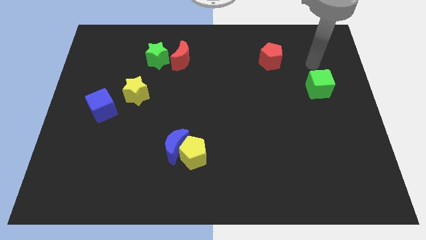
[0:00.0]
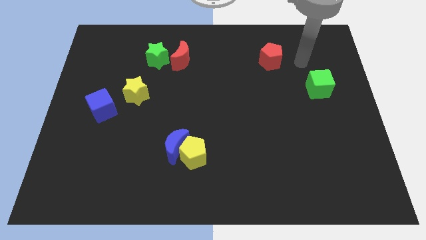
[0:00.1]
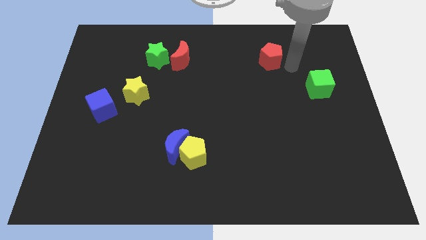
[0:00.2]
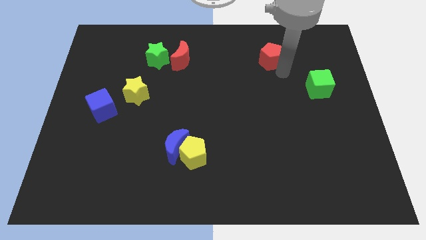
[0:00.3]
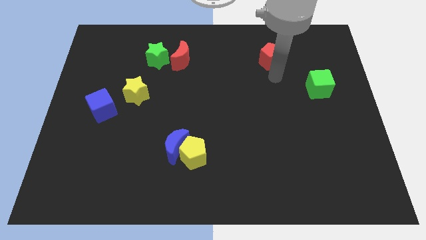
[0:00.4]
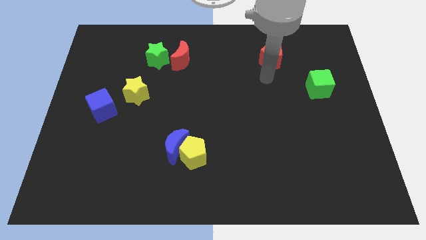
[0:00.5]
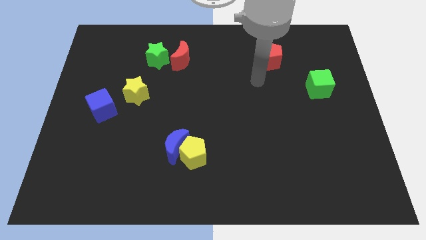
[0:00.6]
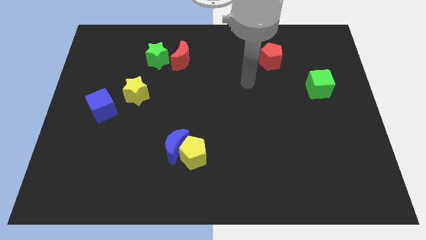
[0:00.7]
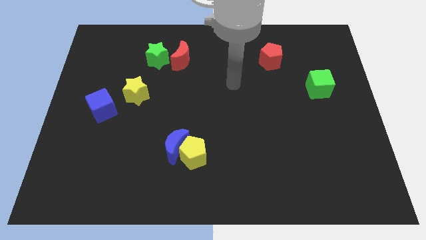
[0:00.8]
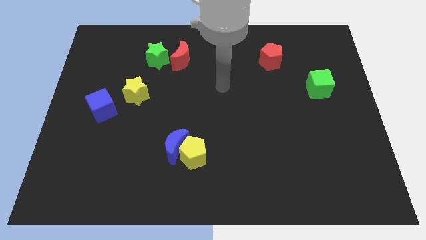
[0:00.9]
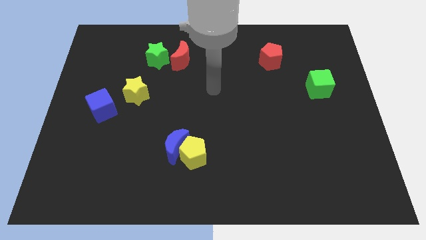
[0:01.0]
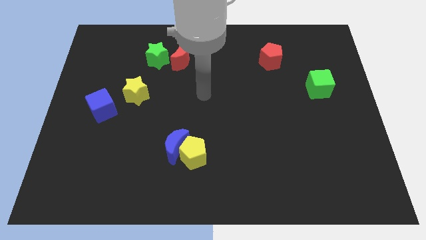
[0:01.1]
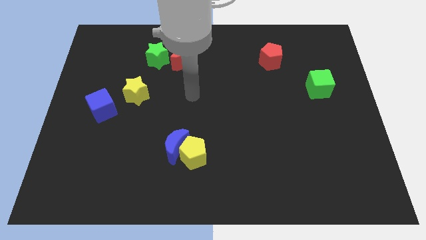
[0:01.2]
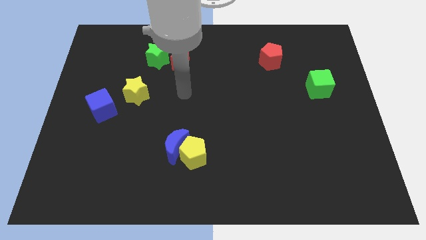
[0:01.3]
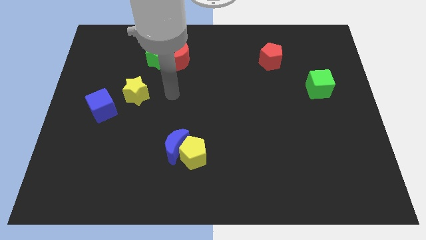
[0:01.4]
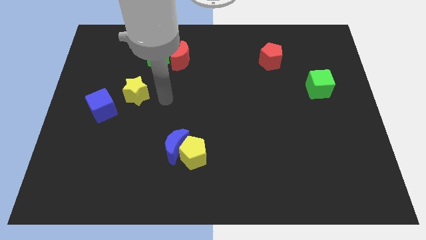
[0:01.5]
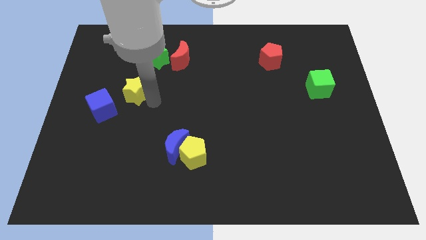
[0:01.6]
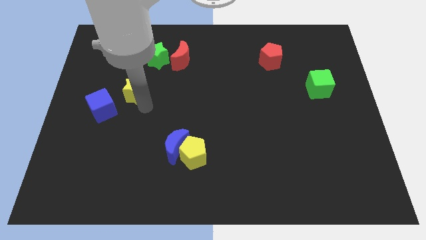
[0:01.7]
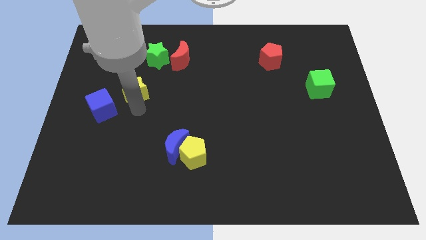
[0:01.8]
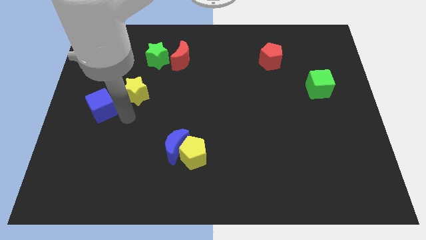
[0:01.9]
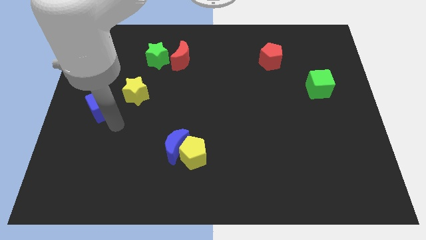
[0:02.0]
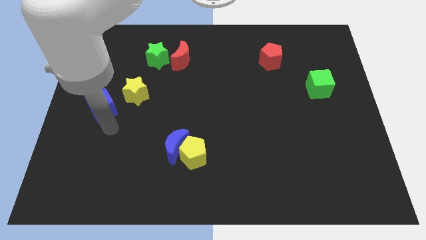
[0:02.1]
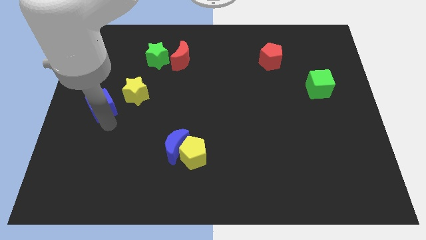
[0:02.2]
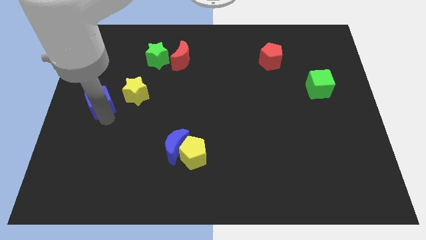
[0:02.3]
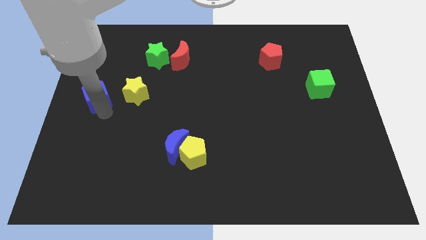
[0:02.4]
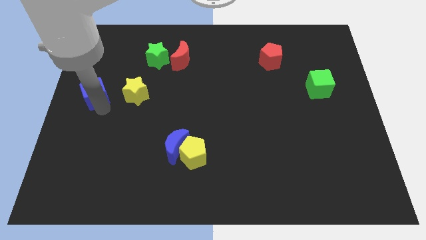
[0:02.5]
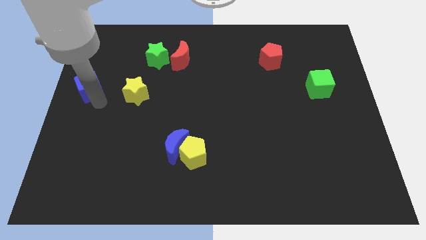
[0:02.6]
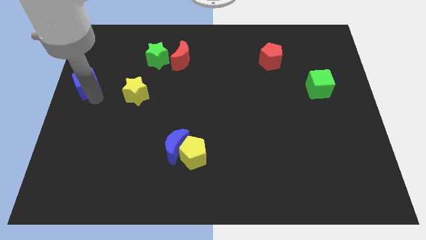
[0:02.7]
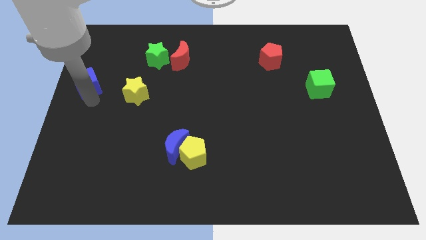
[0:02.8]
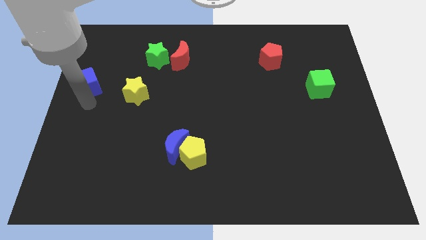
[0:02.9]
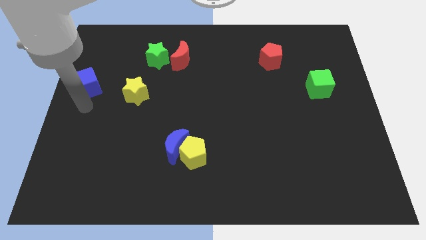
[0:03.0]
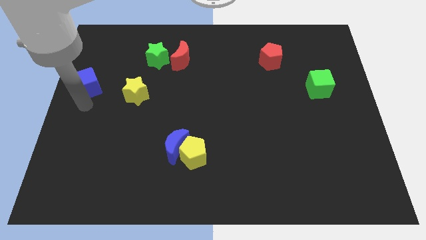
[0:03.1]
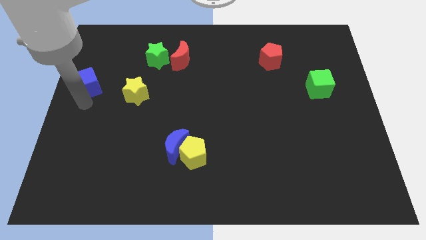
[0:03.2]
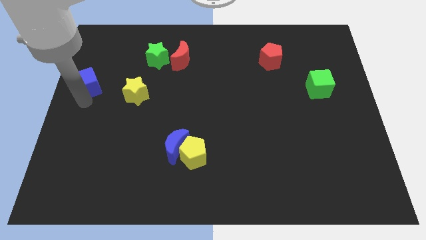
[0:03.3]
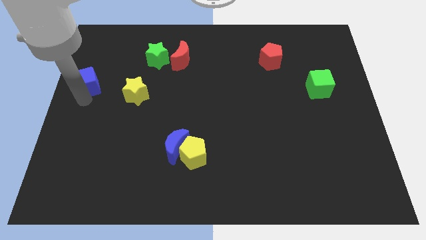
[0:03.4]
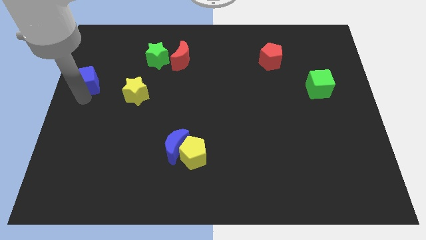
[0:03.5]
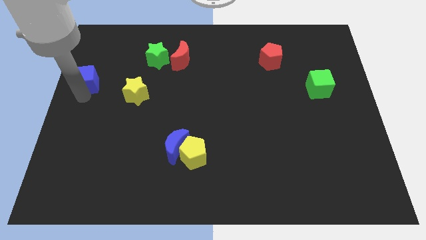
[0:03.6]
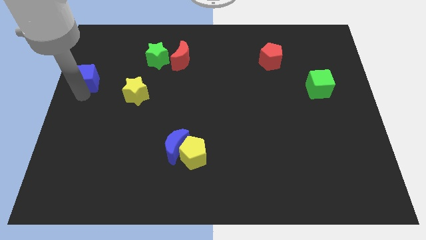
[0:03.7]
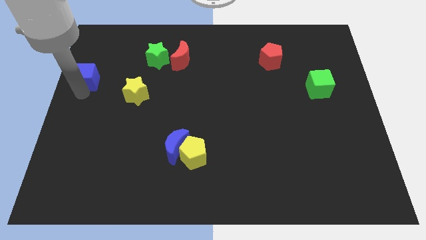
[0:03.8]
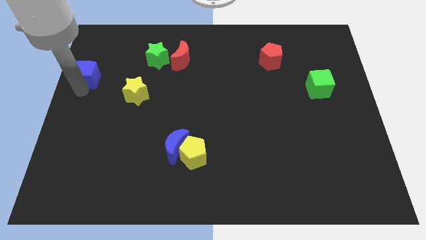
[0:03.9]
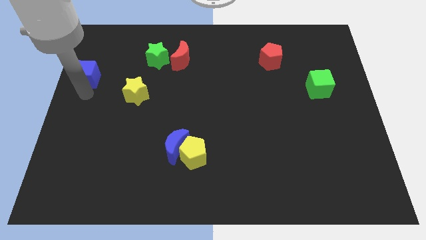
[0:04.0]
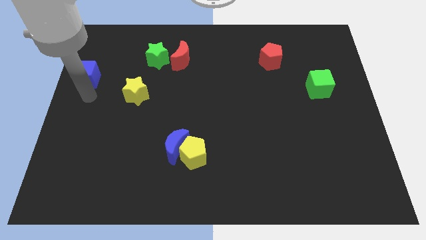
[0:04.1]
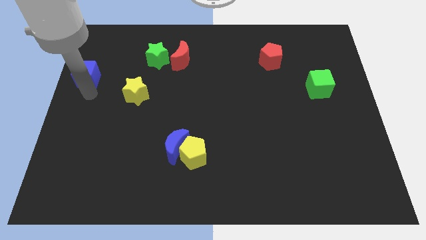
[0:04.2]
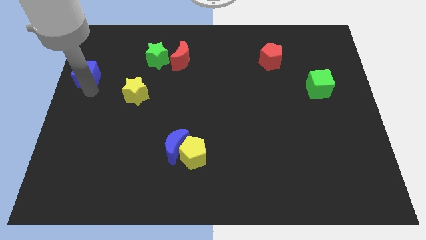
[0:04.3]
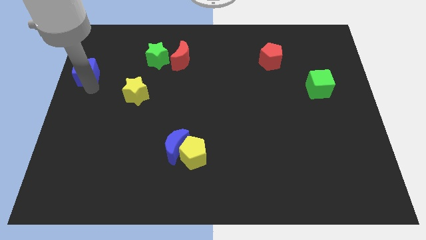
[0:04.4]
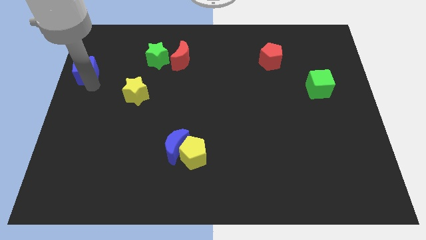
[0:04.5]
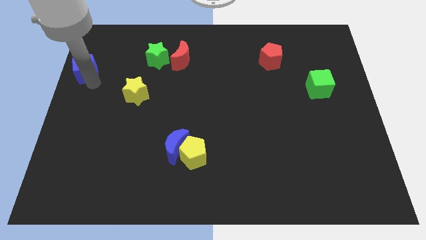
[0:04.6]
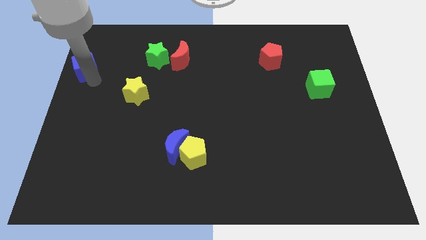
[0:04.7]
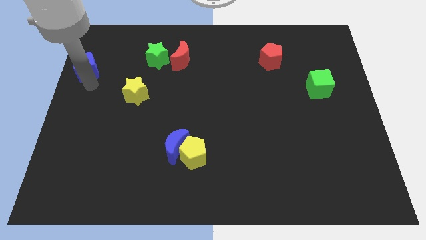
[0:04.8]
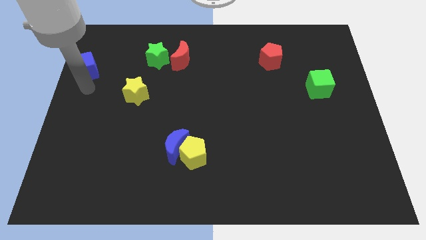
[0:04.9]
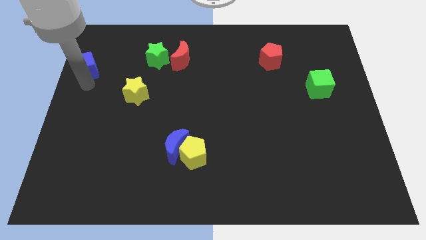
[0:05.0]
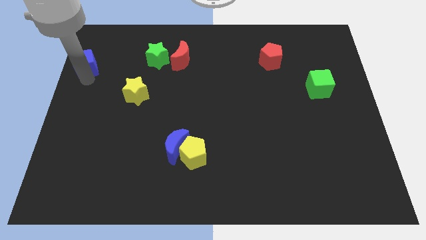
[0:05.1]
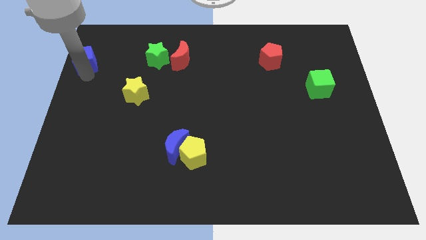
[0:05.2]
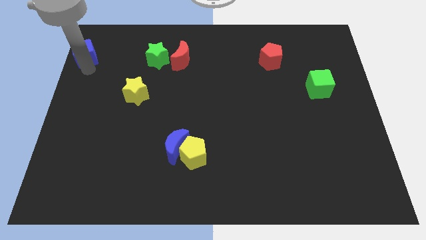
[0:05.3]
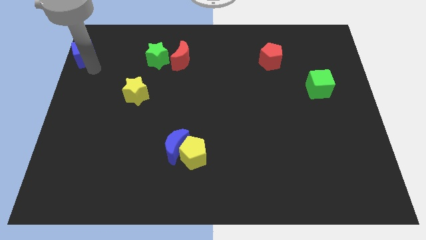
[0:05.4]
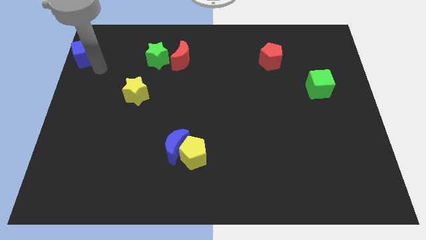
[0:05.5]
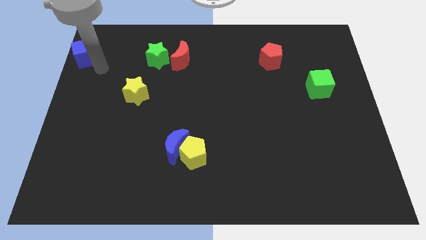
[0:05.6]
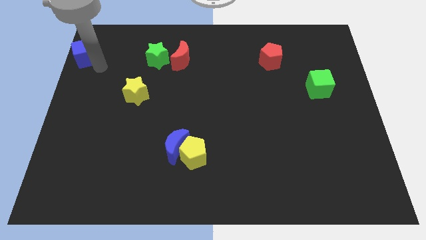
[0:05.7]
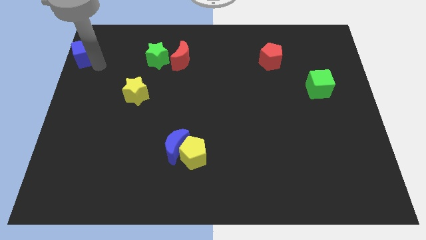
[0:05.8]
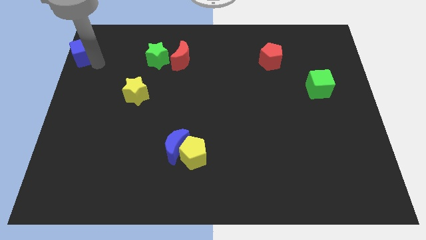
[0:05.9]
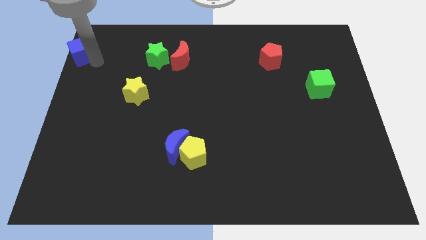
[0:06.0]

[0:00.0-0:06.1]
put the blue cube to the upper left corner
